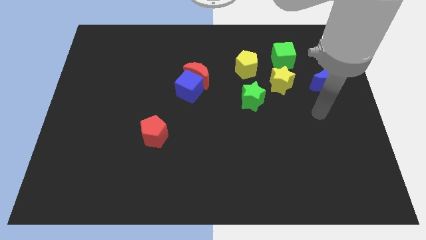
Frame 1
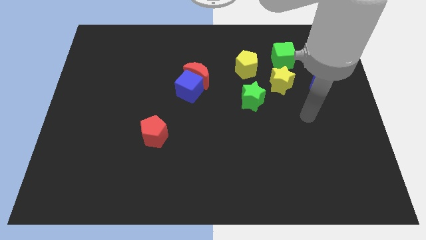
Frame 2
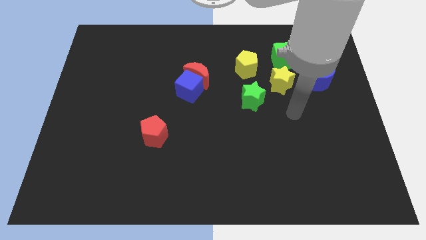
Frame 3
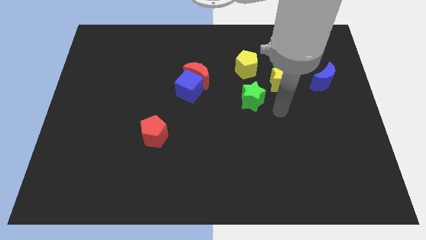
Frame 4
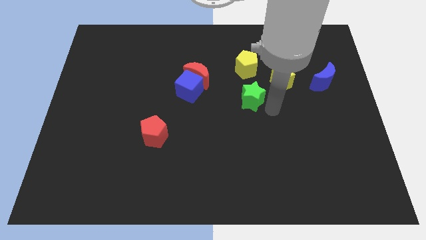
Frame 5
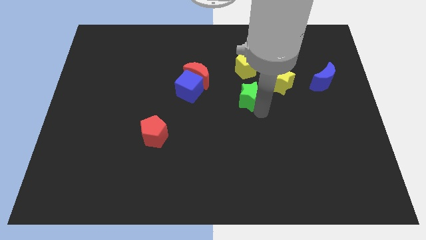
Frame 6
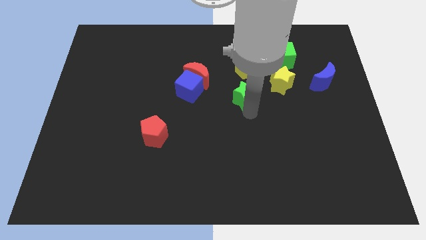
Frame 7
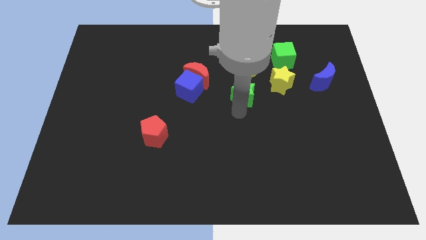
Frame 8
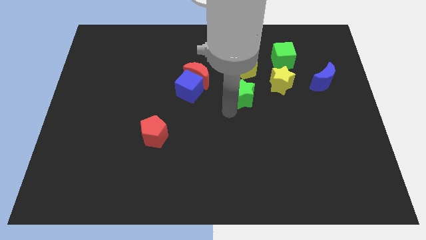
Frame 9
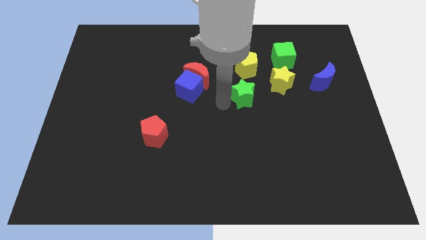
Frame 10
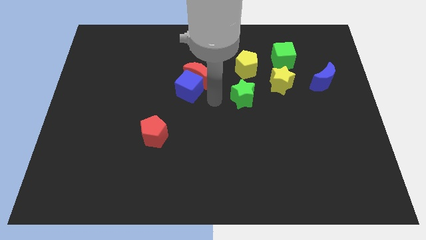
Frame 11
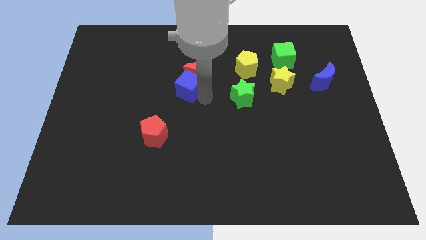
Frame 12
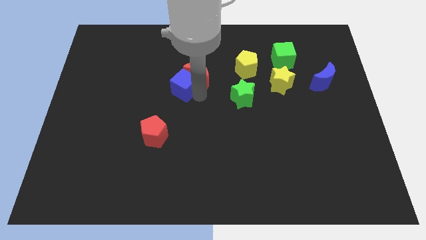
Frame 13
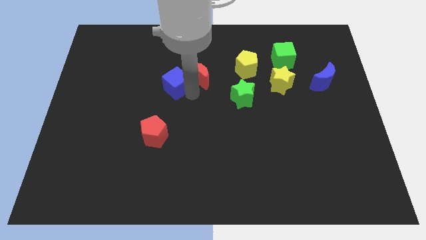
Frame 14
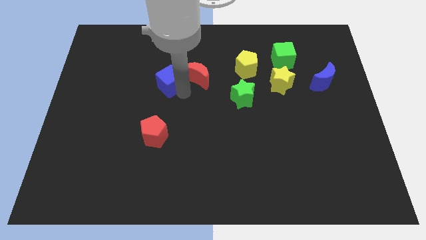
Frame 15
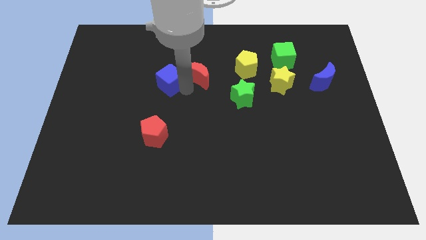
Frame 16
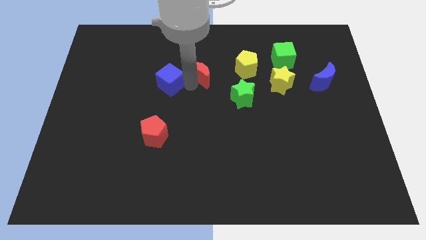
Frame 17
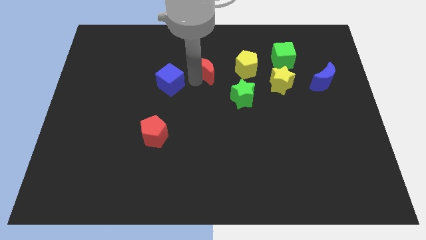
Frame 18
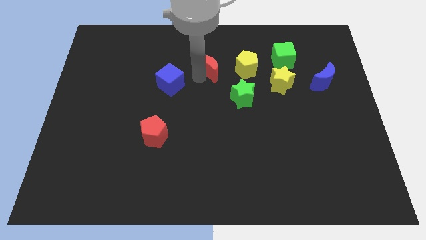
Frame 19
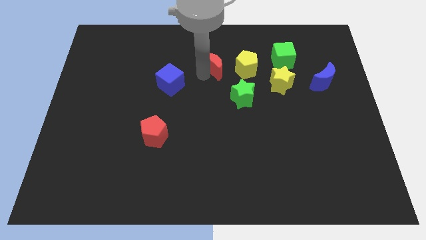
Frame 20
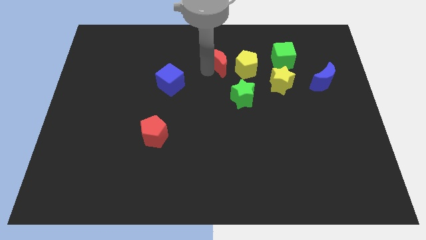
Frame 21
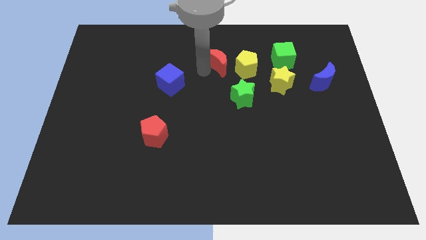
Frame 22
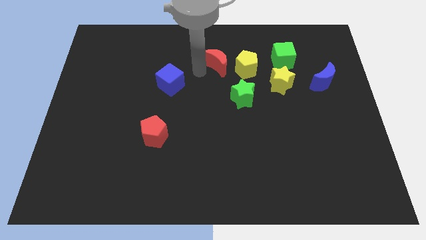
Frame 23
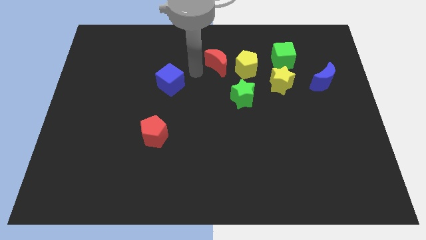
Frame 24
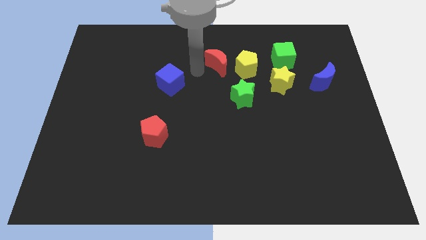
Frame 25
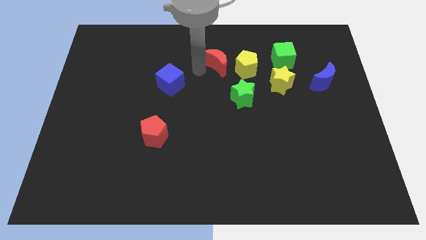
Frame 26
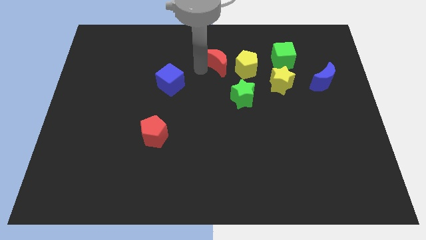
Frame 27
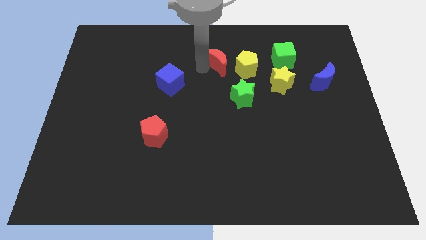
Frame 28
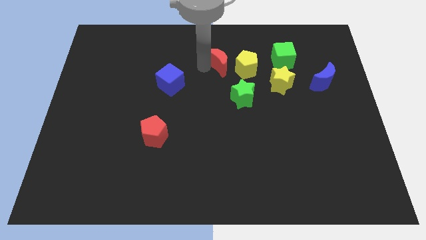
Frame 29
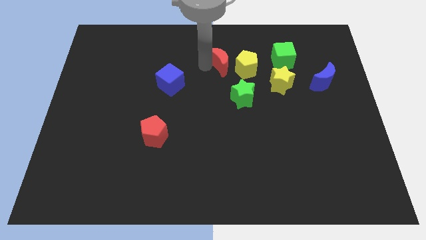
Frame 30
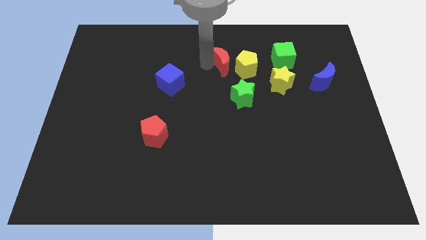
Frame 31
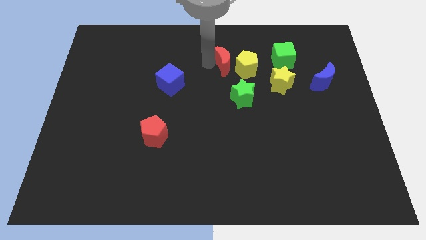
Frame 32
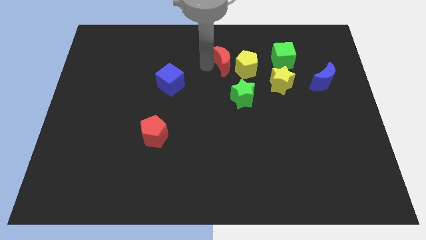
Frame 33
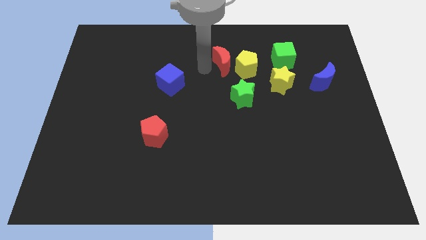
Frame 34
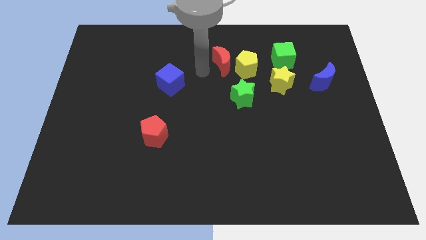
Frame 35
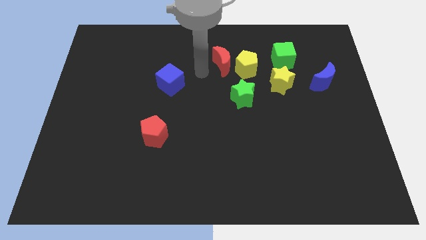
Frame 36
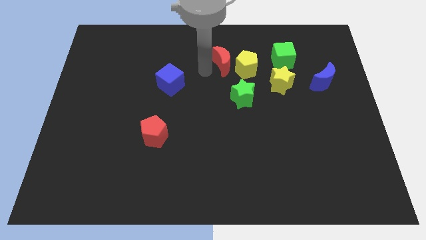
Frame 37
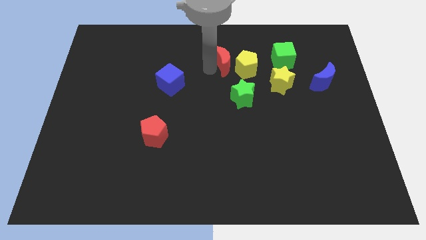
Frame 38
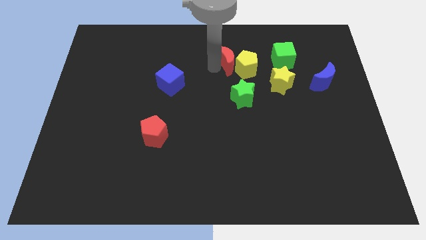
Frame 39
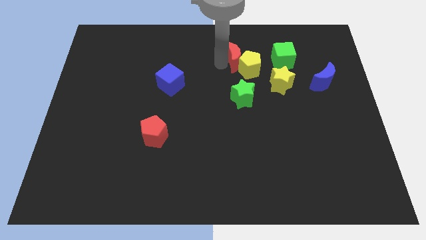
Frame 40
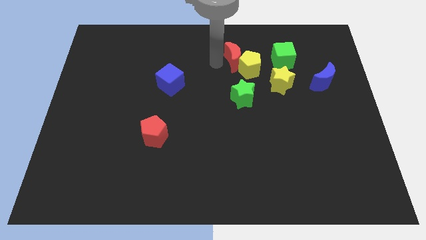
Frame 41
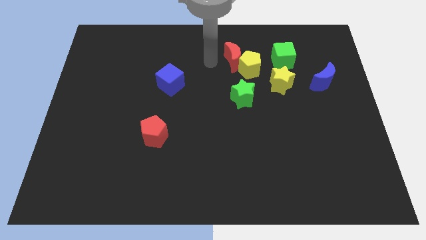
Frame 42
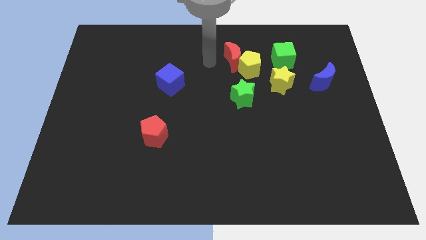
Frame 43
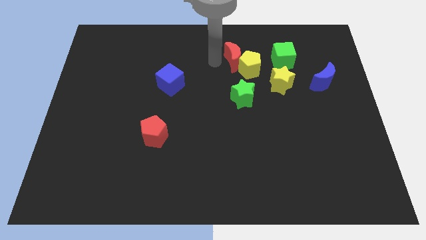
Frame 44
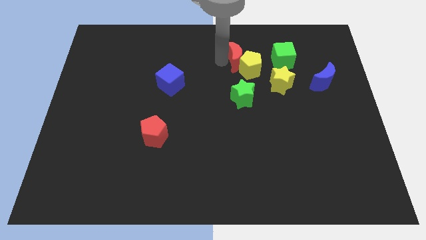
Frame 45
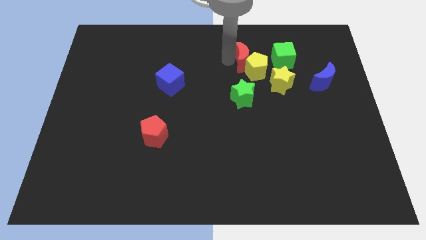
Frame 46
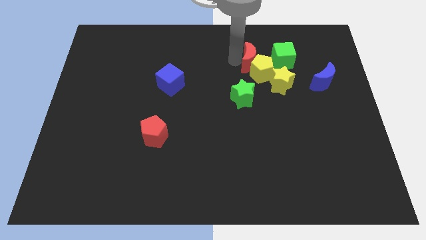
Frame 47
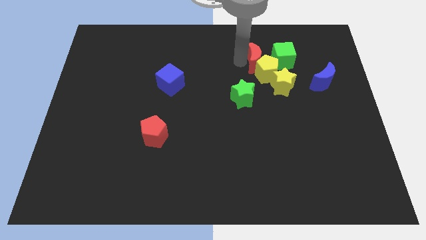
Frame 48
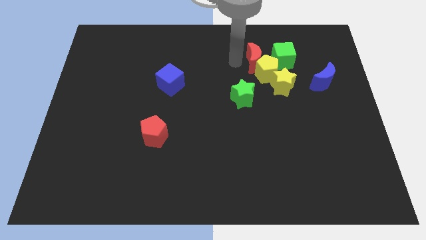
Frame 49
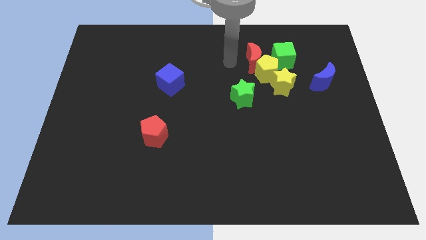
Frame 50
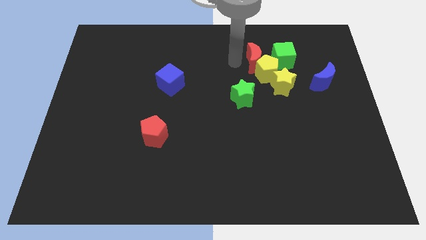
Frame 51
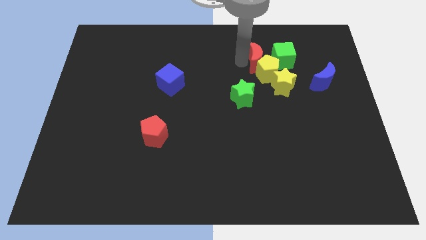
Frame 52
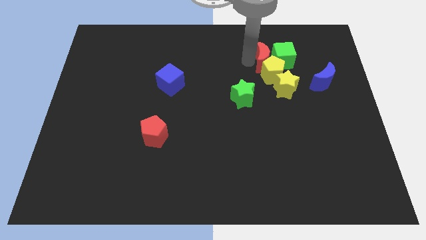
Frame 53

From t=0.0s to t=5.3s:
move the red moon to the green cube
